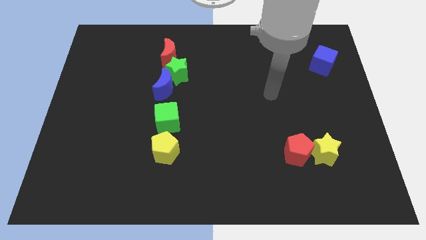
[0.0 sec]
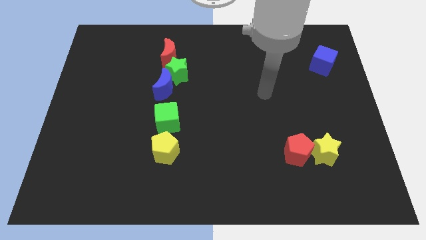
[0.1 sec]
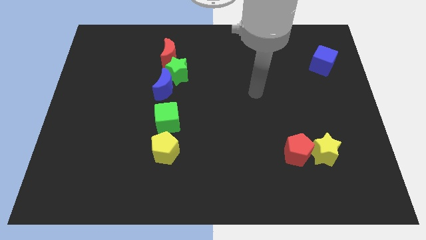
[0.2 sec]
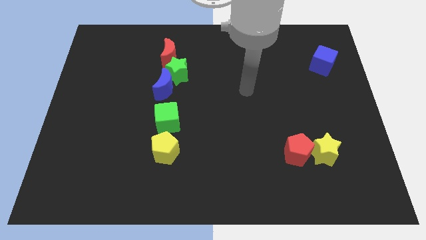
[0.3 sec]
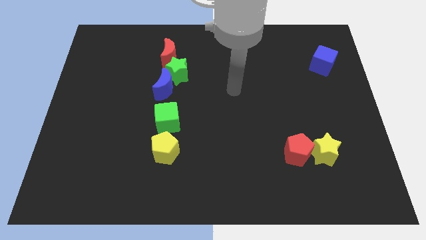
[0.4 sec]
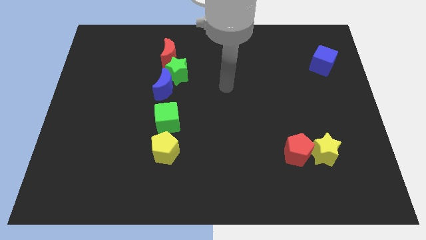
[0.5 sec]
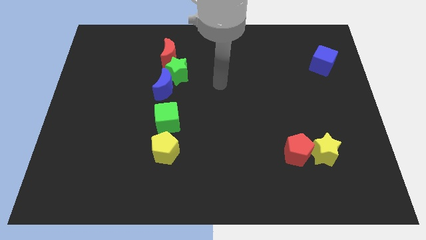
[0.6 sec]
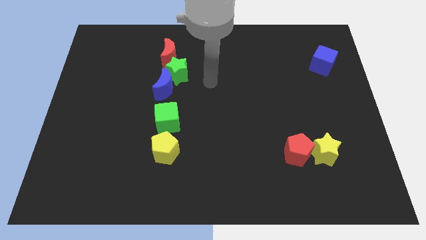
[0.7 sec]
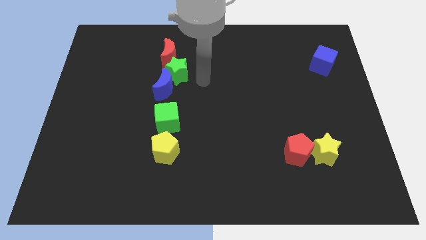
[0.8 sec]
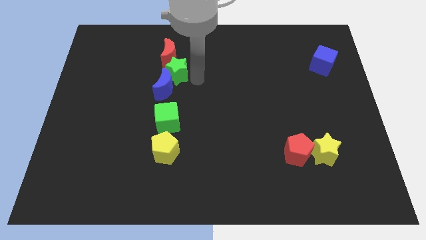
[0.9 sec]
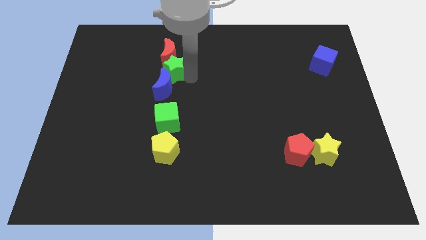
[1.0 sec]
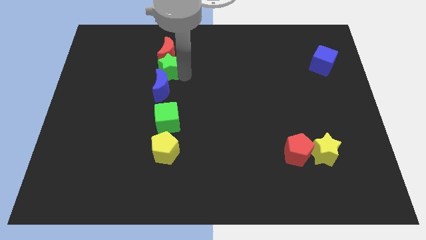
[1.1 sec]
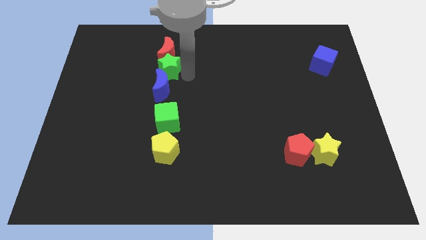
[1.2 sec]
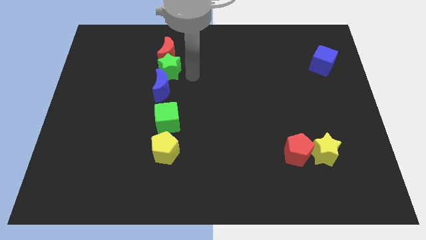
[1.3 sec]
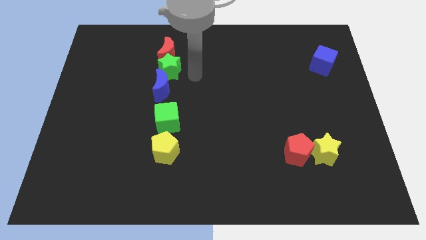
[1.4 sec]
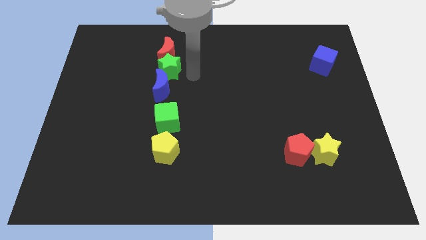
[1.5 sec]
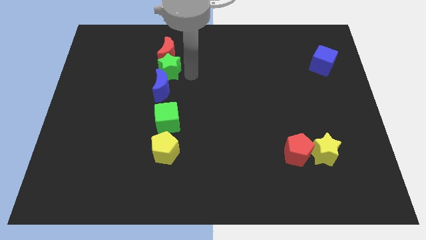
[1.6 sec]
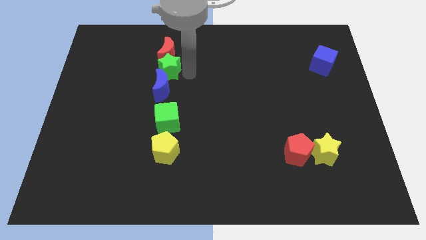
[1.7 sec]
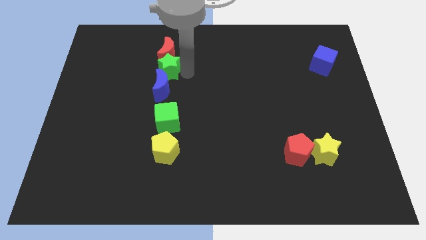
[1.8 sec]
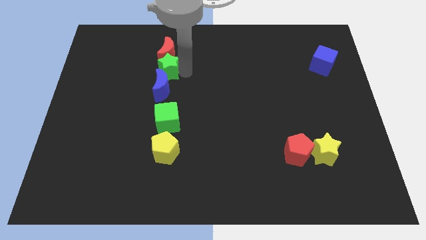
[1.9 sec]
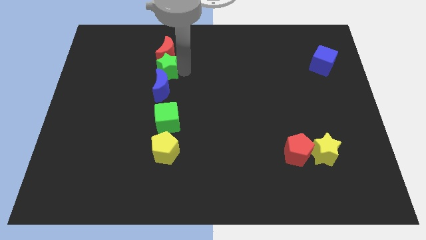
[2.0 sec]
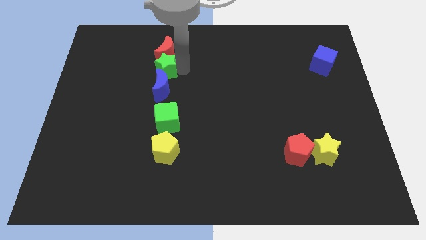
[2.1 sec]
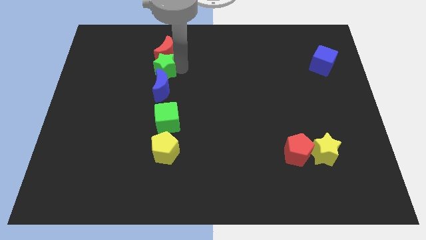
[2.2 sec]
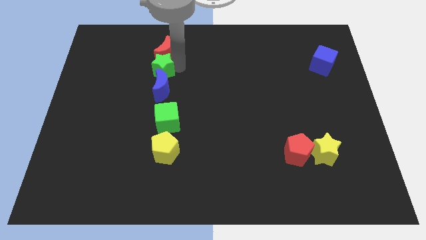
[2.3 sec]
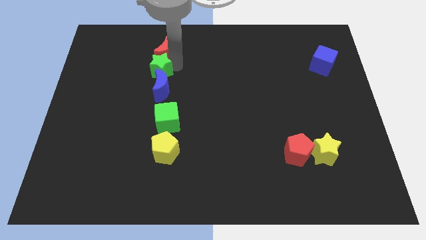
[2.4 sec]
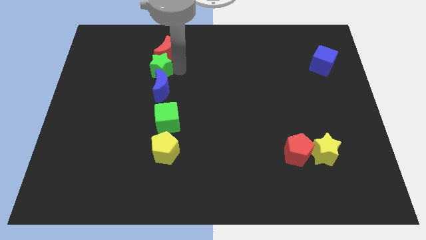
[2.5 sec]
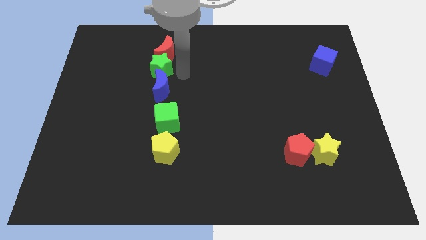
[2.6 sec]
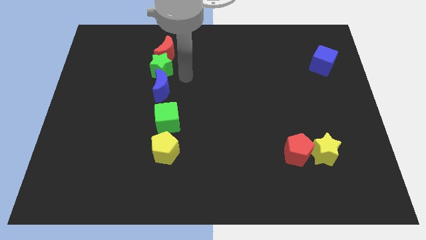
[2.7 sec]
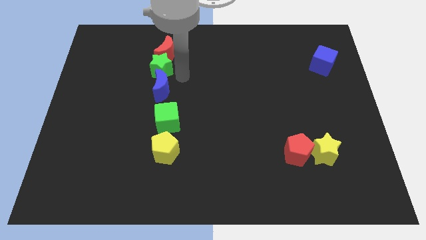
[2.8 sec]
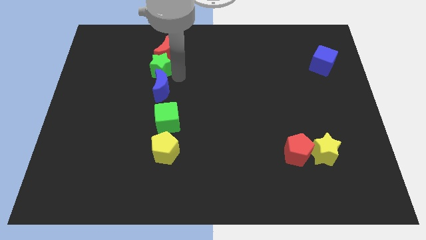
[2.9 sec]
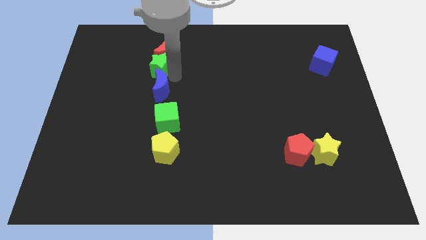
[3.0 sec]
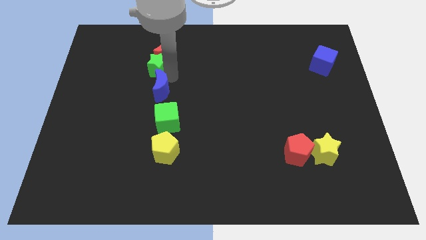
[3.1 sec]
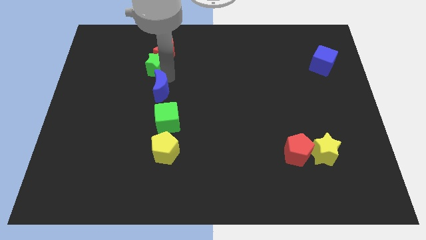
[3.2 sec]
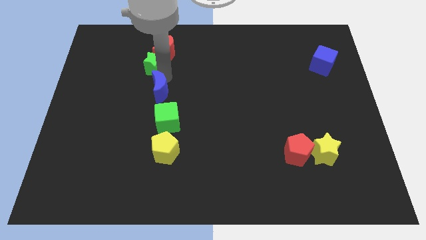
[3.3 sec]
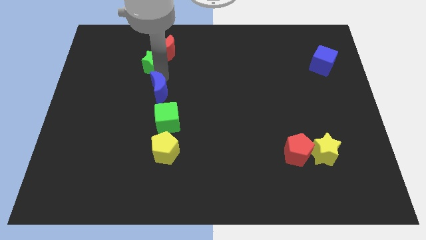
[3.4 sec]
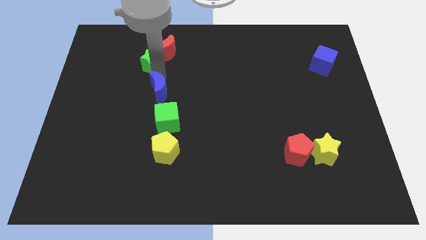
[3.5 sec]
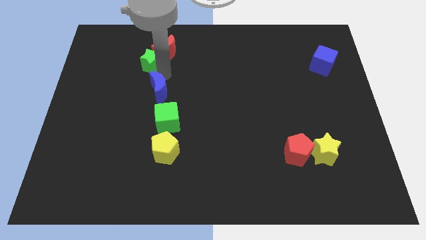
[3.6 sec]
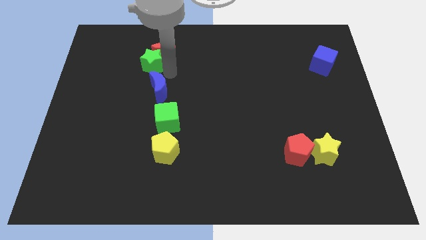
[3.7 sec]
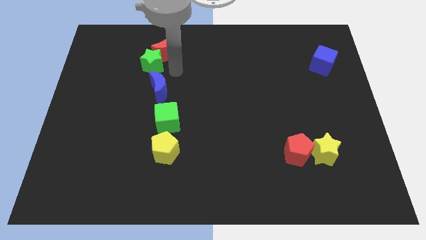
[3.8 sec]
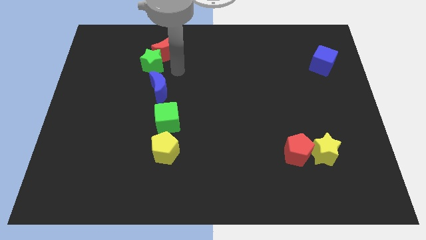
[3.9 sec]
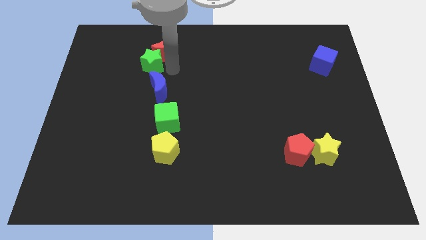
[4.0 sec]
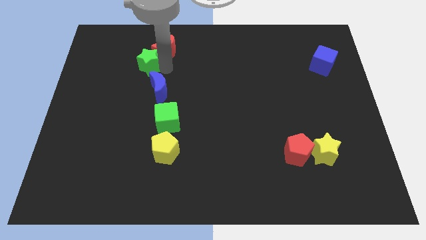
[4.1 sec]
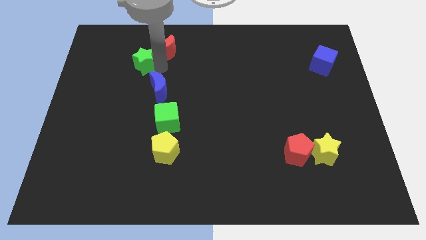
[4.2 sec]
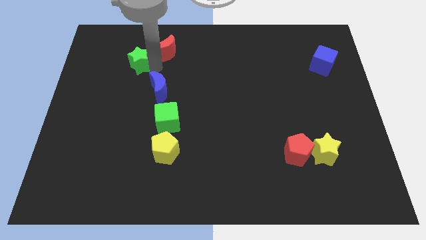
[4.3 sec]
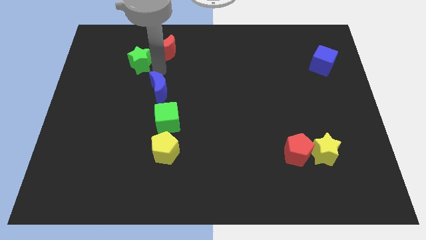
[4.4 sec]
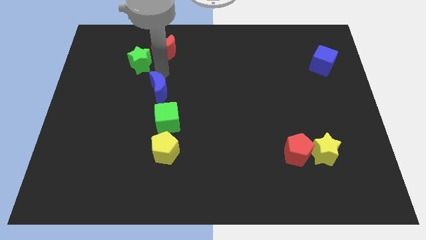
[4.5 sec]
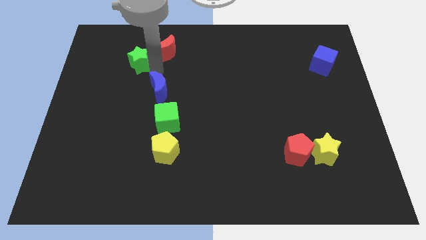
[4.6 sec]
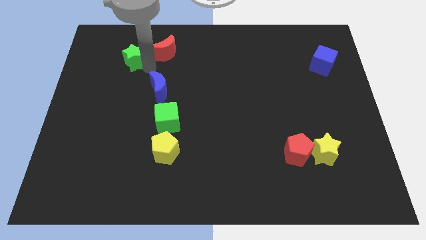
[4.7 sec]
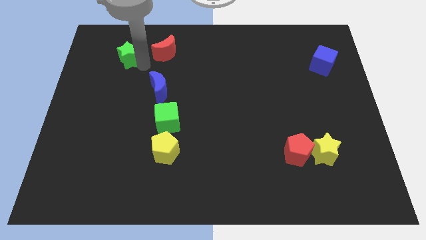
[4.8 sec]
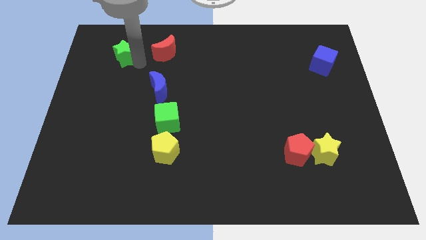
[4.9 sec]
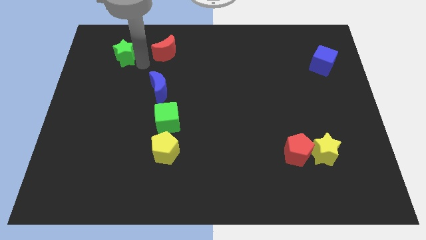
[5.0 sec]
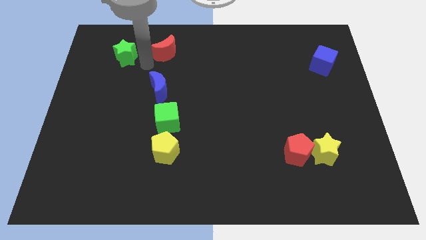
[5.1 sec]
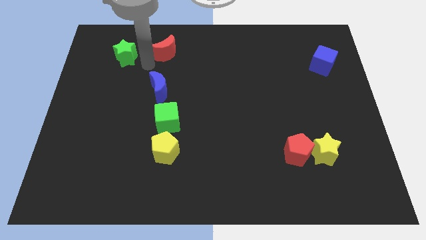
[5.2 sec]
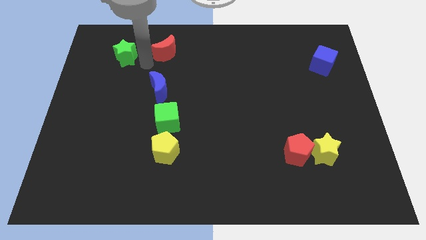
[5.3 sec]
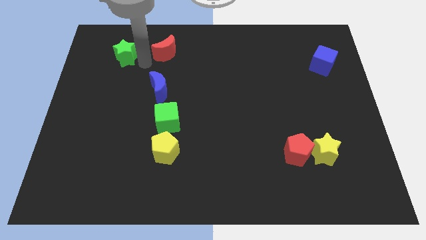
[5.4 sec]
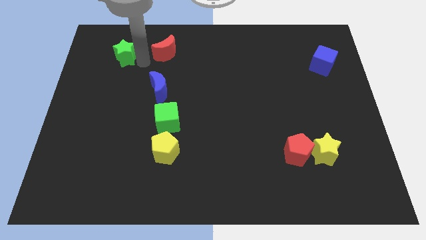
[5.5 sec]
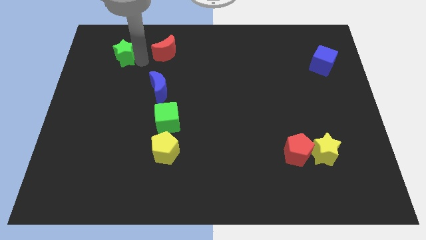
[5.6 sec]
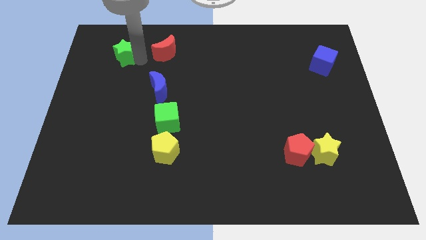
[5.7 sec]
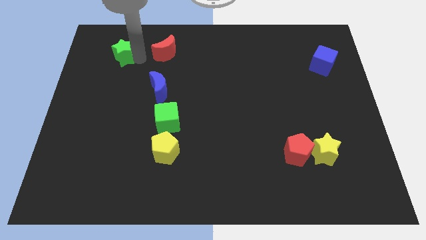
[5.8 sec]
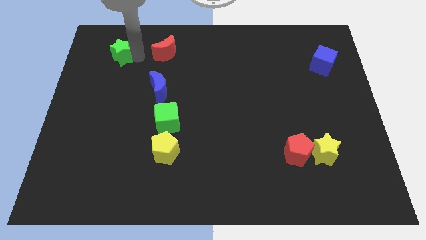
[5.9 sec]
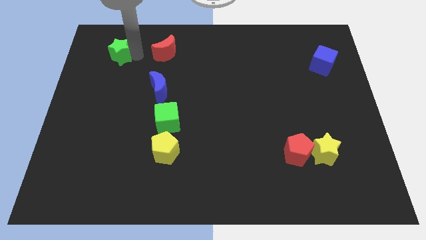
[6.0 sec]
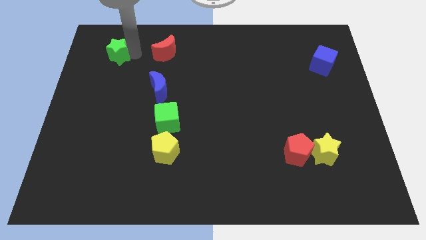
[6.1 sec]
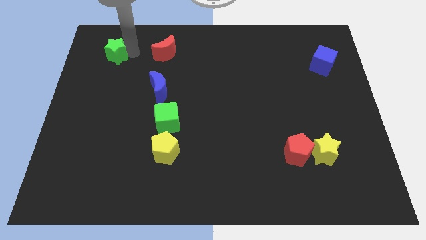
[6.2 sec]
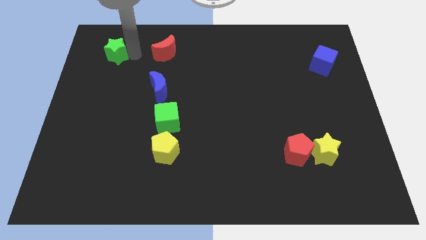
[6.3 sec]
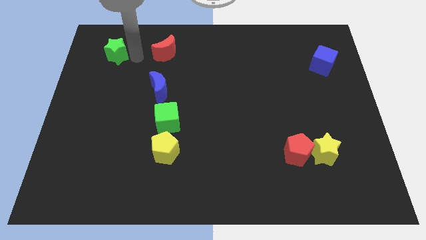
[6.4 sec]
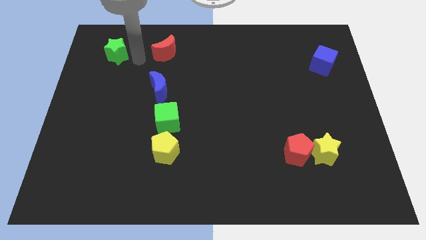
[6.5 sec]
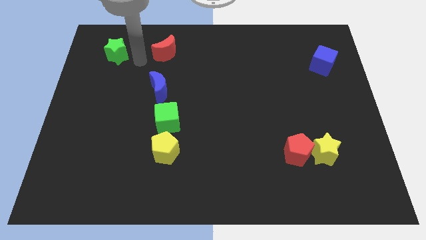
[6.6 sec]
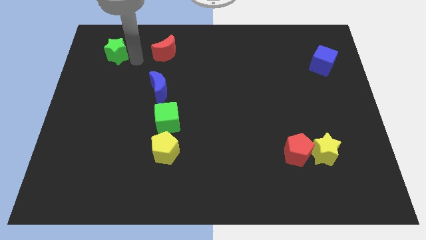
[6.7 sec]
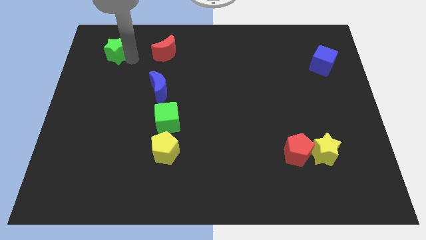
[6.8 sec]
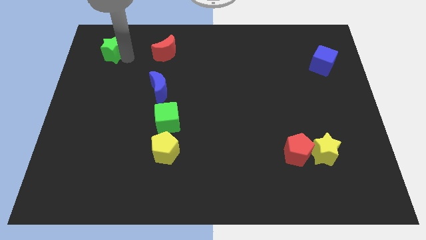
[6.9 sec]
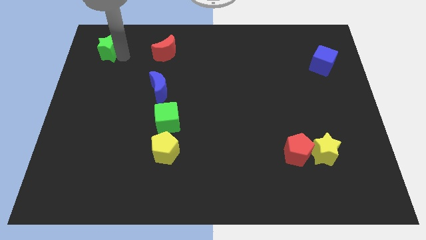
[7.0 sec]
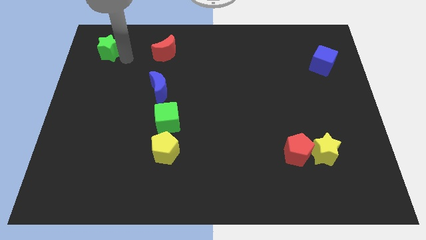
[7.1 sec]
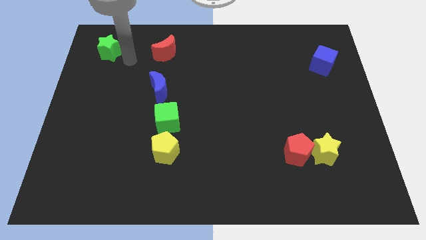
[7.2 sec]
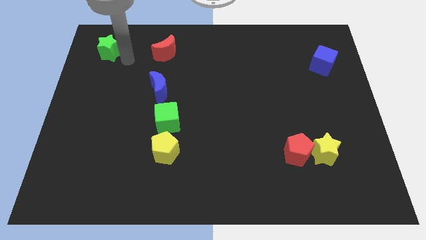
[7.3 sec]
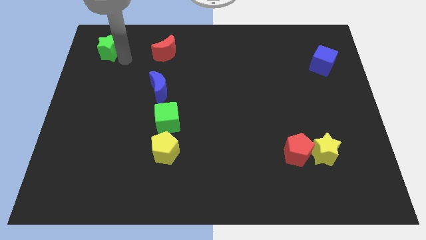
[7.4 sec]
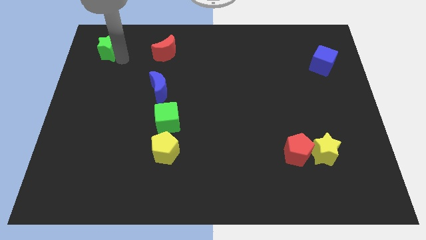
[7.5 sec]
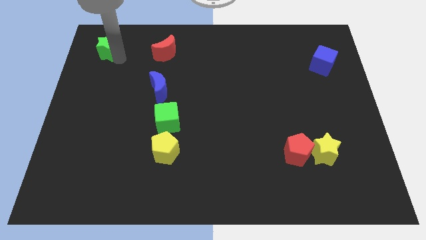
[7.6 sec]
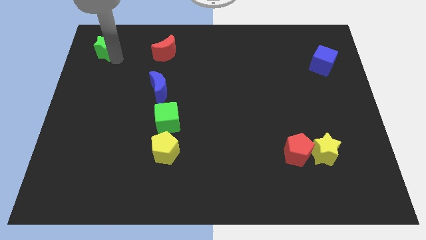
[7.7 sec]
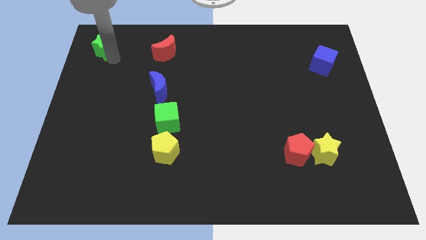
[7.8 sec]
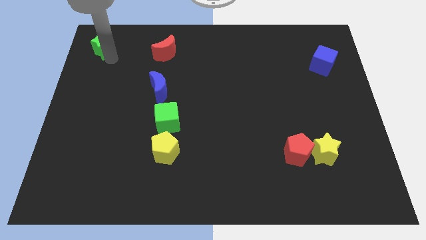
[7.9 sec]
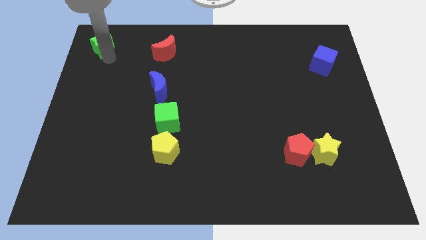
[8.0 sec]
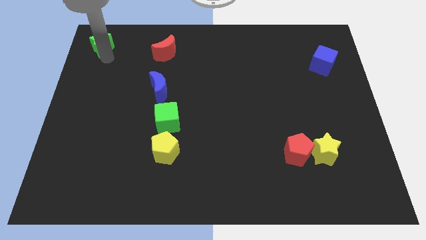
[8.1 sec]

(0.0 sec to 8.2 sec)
slide the green star to the upper left corner
